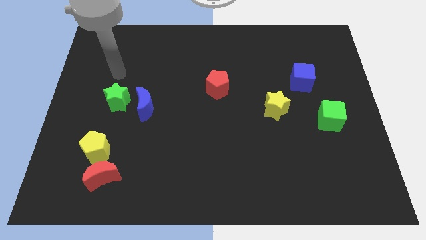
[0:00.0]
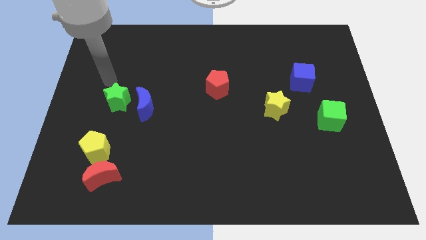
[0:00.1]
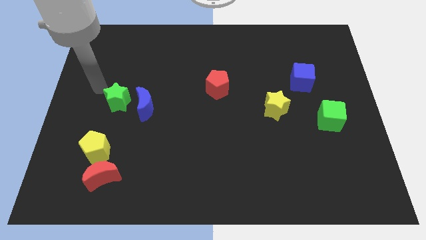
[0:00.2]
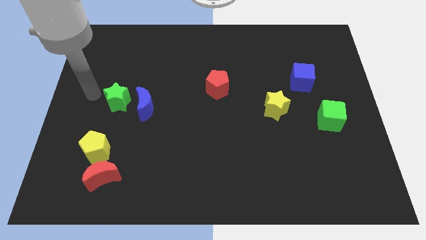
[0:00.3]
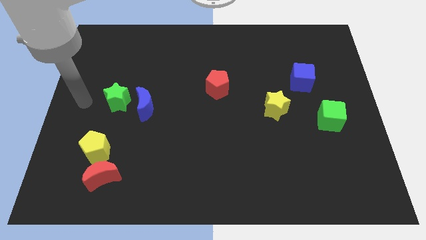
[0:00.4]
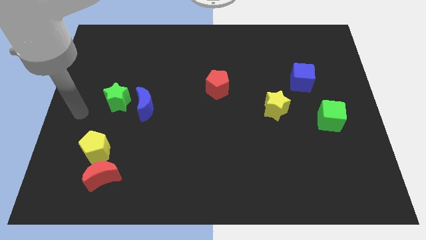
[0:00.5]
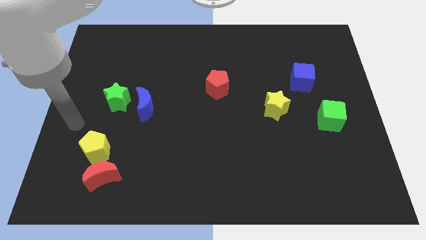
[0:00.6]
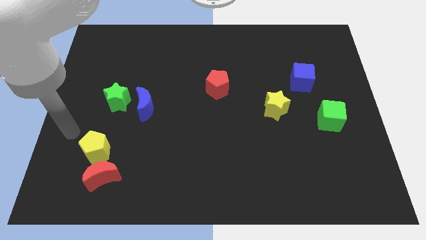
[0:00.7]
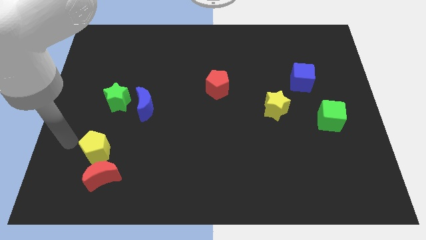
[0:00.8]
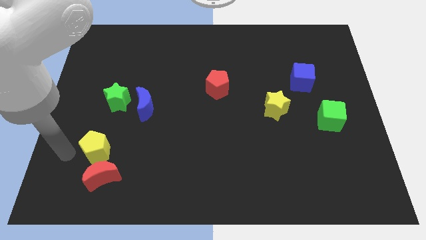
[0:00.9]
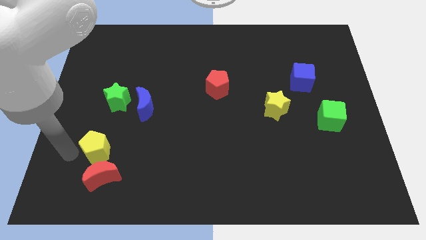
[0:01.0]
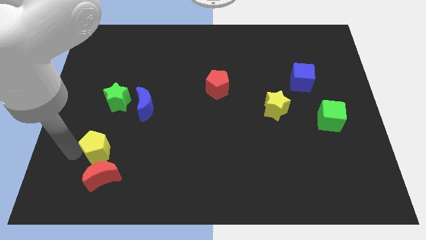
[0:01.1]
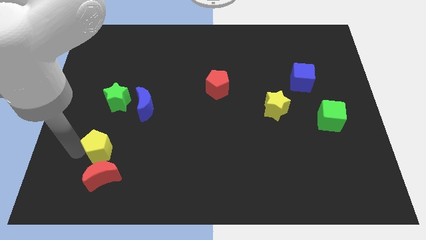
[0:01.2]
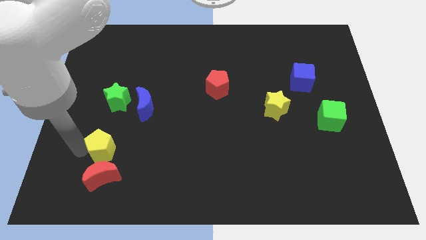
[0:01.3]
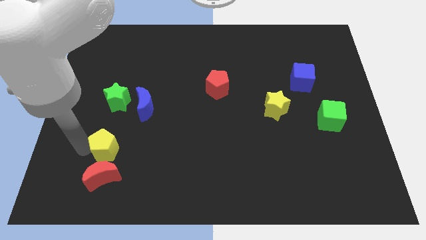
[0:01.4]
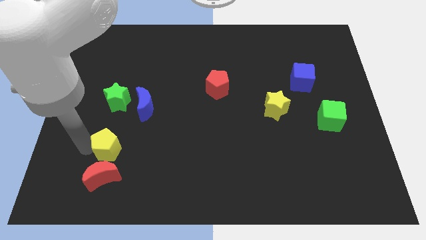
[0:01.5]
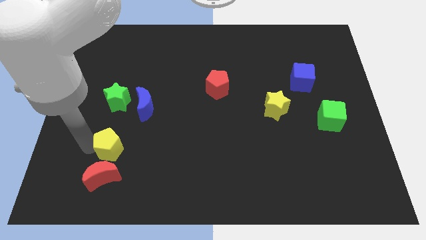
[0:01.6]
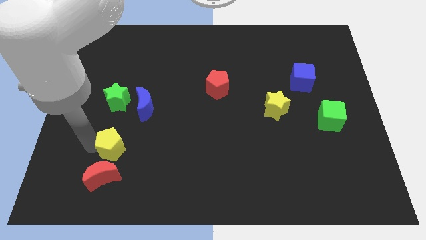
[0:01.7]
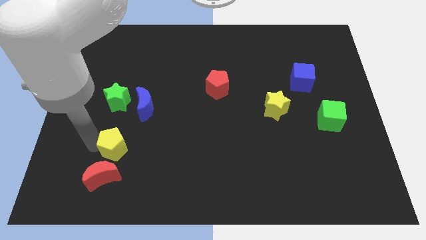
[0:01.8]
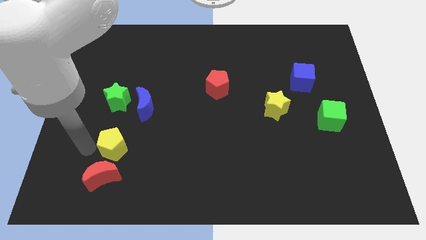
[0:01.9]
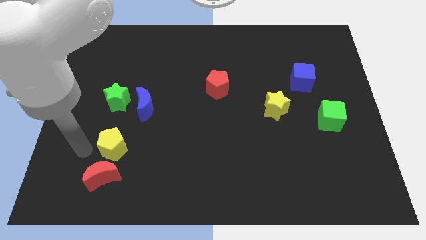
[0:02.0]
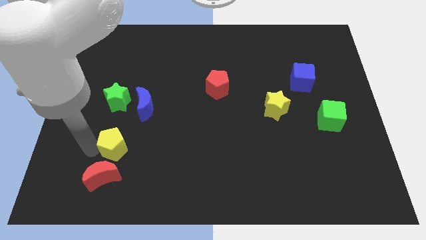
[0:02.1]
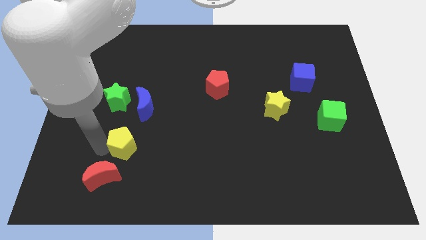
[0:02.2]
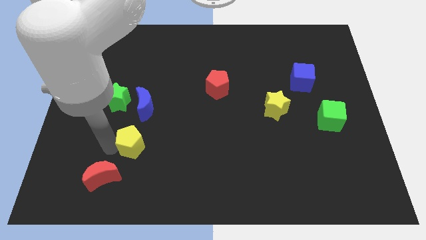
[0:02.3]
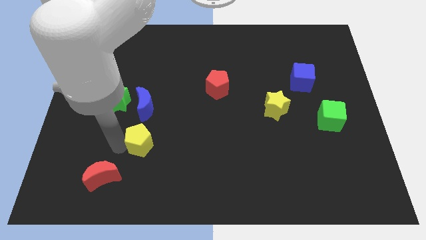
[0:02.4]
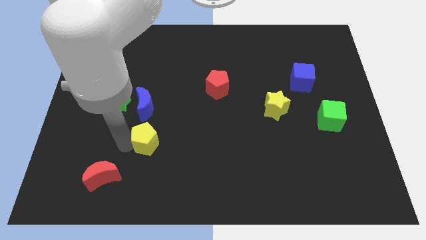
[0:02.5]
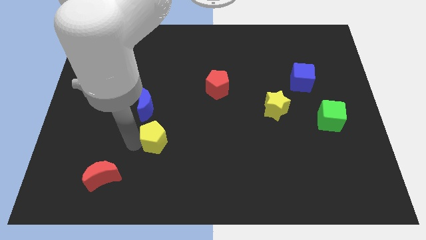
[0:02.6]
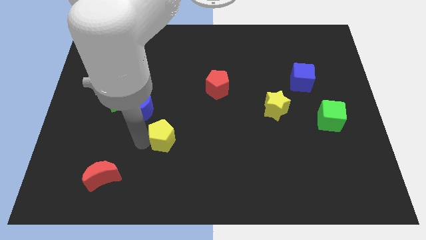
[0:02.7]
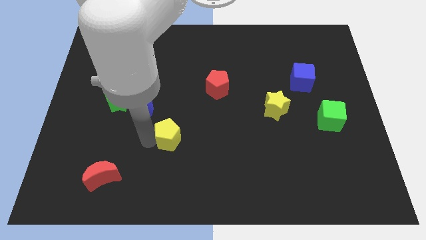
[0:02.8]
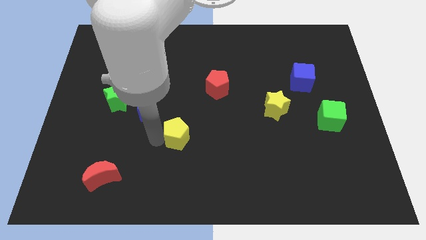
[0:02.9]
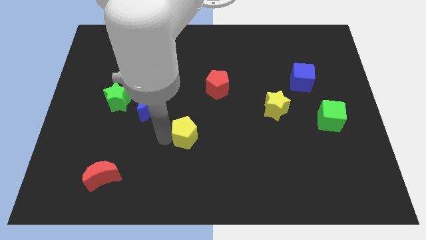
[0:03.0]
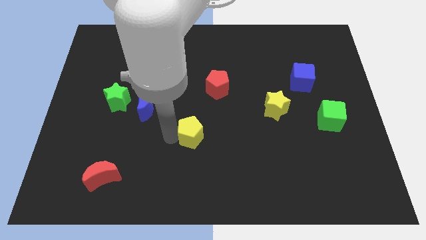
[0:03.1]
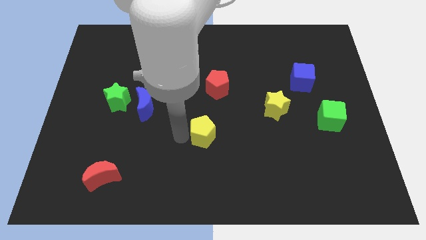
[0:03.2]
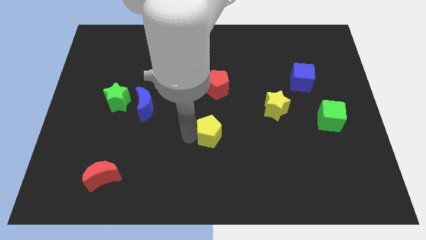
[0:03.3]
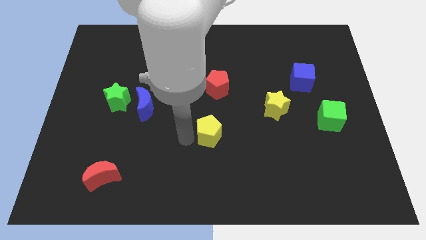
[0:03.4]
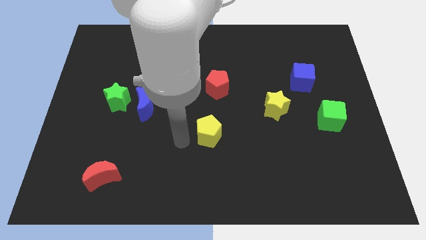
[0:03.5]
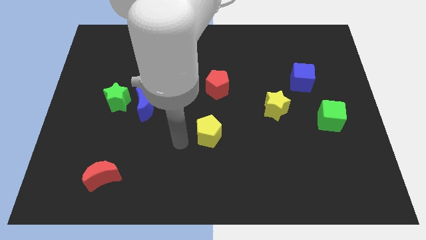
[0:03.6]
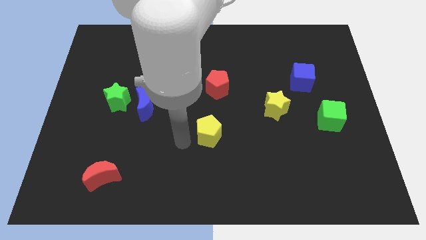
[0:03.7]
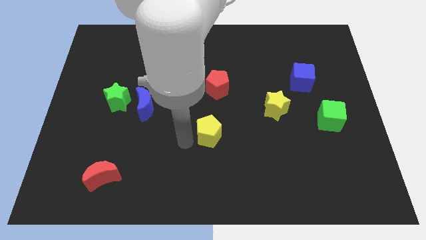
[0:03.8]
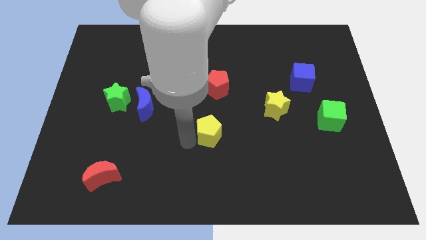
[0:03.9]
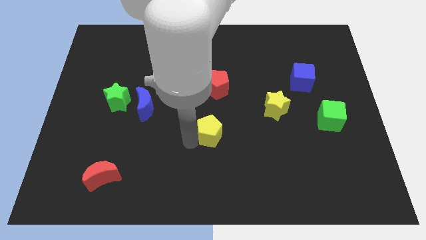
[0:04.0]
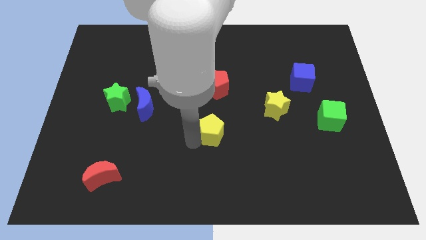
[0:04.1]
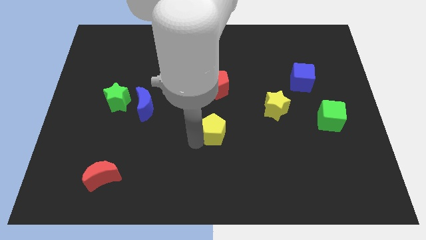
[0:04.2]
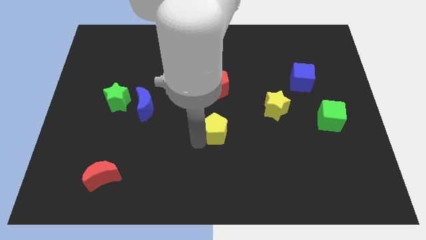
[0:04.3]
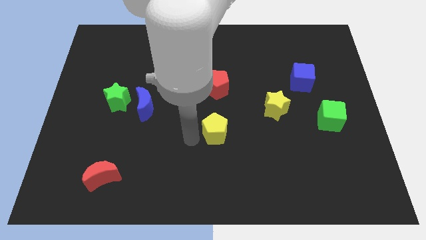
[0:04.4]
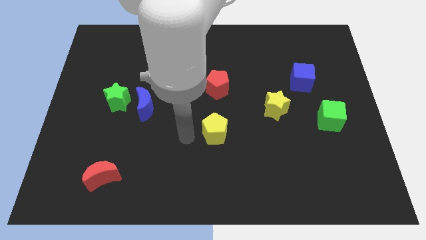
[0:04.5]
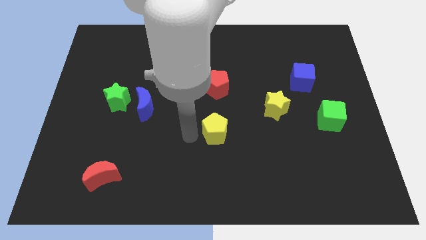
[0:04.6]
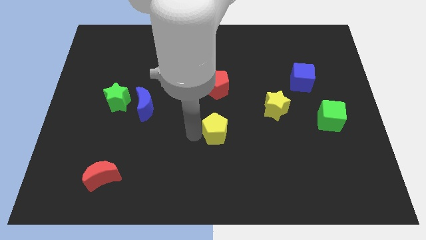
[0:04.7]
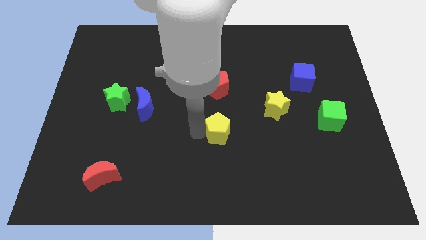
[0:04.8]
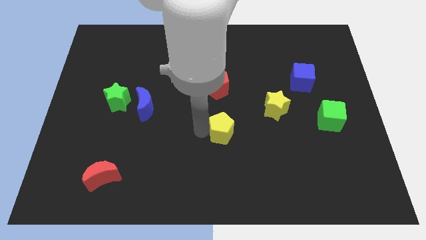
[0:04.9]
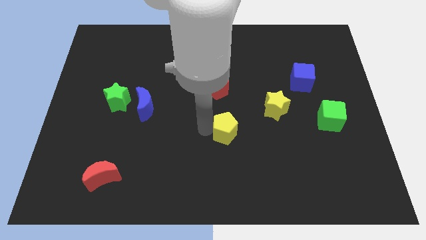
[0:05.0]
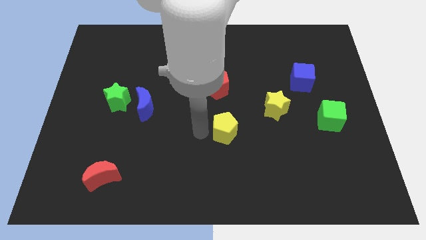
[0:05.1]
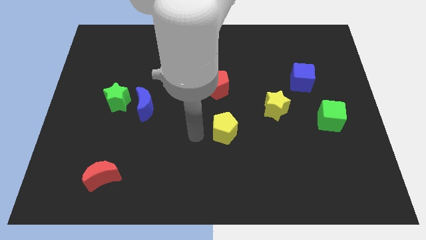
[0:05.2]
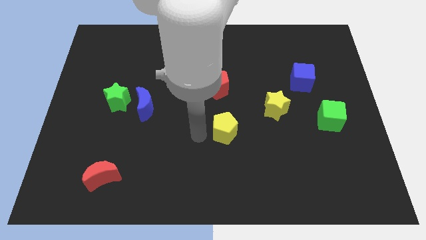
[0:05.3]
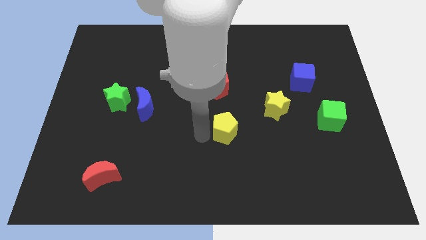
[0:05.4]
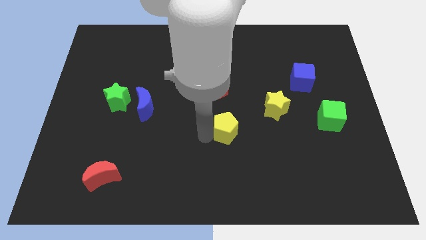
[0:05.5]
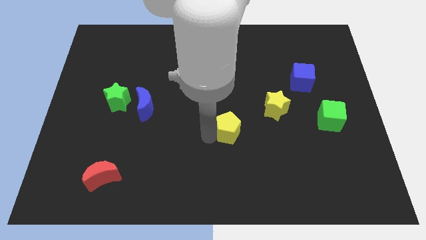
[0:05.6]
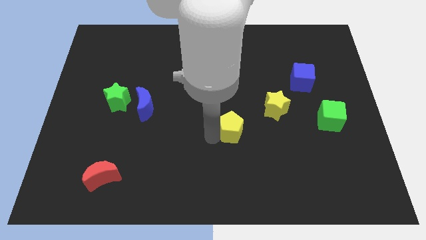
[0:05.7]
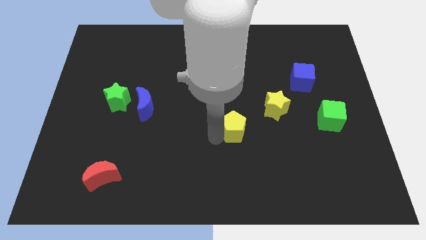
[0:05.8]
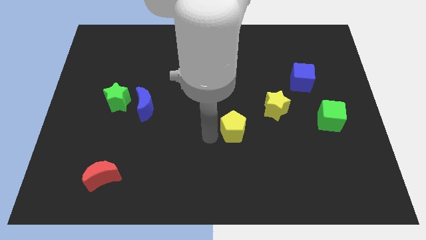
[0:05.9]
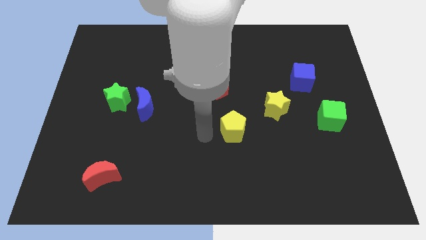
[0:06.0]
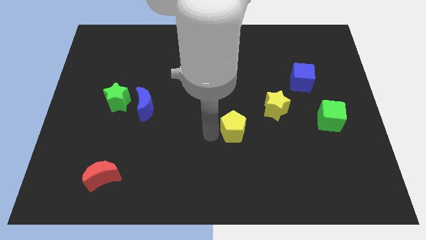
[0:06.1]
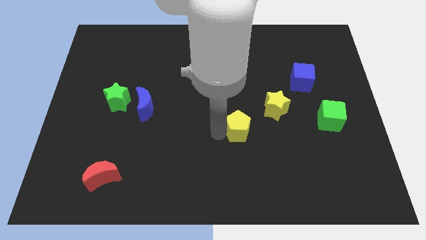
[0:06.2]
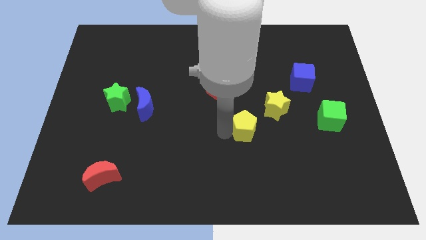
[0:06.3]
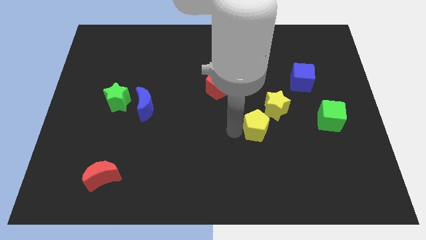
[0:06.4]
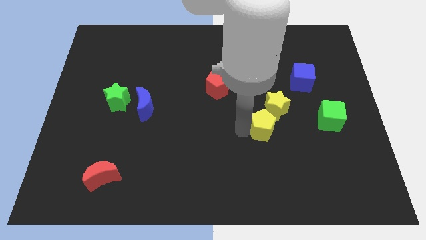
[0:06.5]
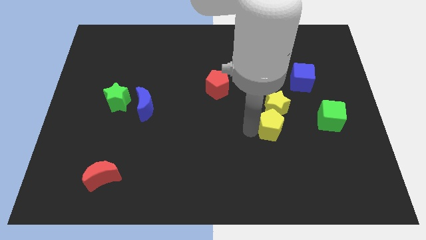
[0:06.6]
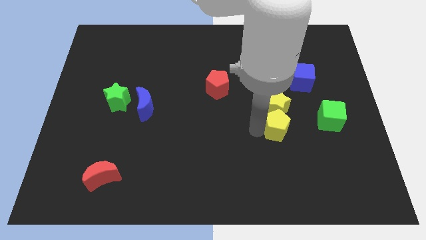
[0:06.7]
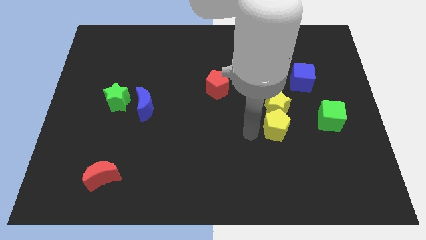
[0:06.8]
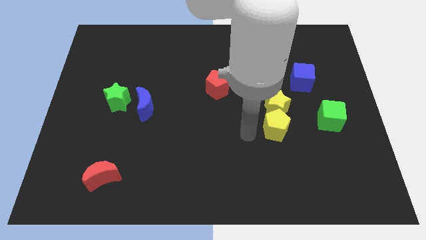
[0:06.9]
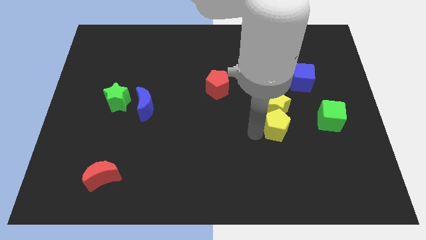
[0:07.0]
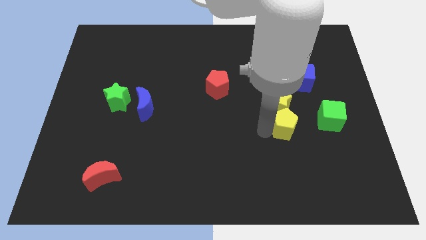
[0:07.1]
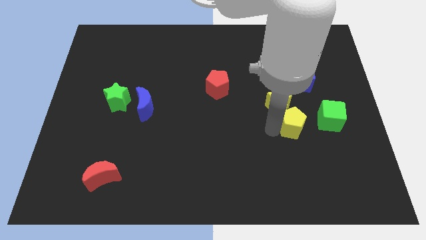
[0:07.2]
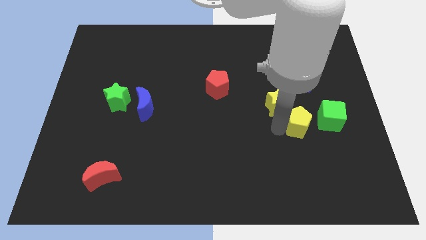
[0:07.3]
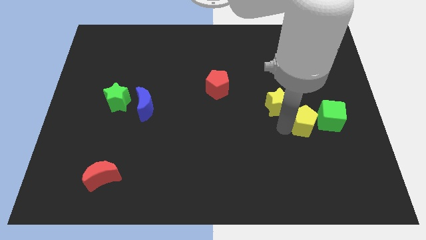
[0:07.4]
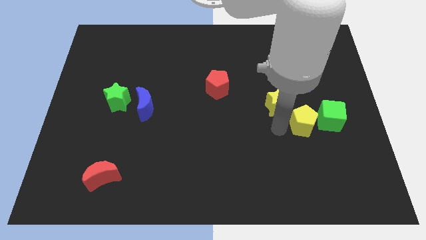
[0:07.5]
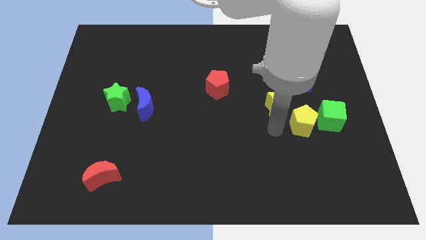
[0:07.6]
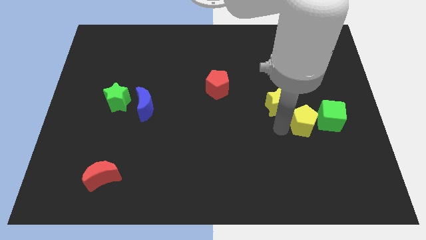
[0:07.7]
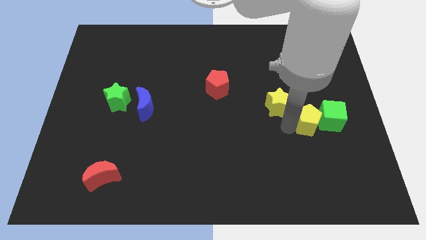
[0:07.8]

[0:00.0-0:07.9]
put the yellow pentagon to the green cube
